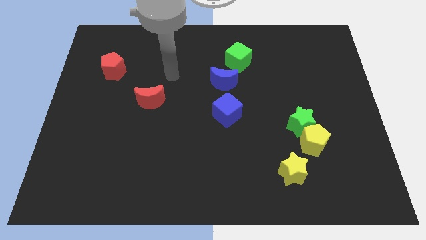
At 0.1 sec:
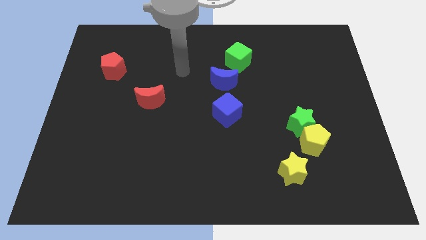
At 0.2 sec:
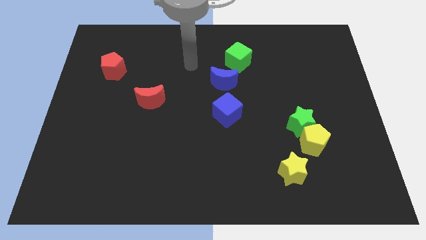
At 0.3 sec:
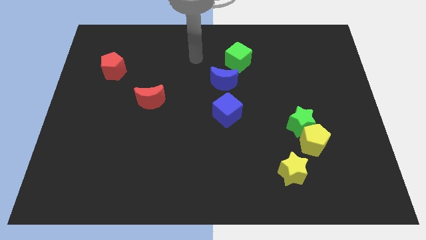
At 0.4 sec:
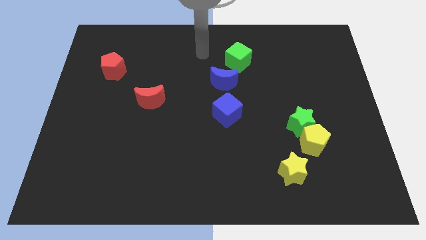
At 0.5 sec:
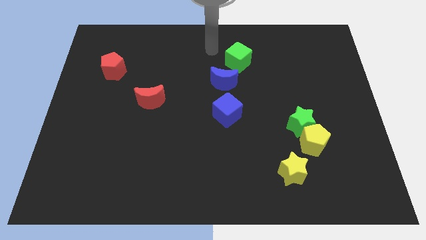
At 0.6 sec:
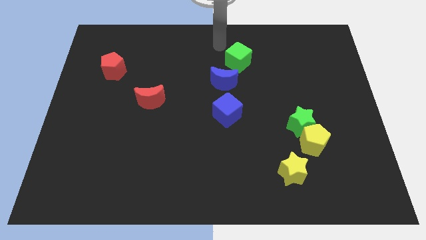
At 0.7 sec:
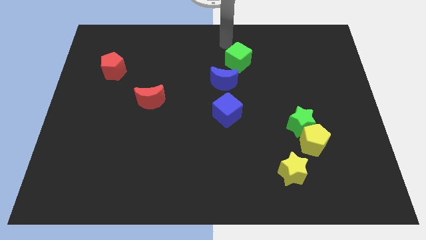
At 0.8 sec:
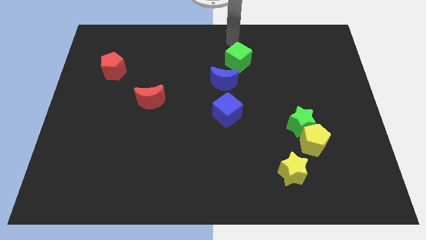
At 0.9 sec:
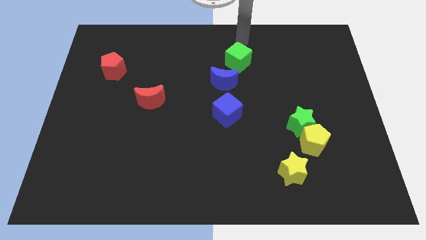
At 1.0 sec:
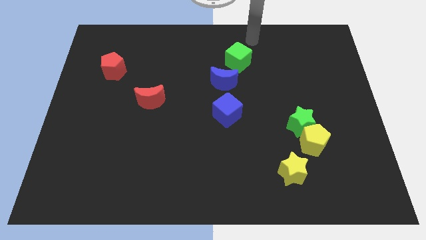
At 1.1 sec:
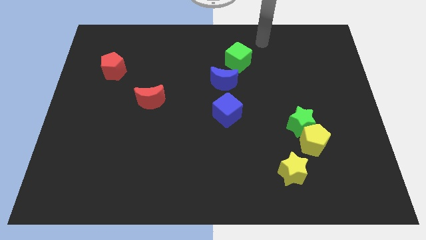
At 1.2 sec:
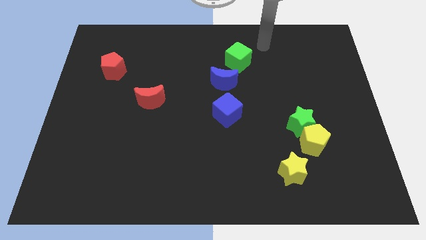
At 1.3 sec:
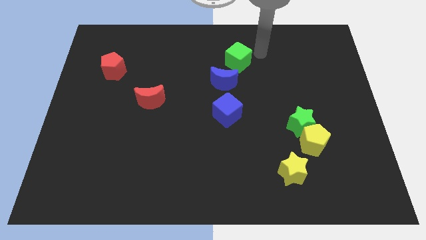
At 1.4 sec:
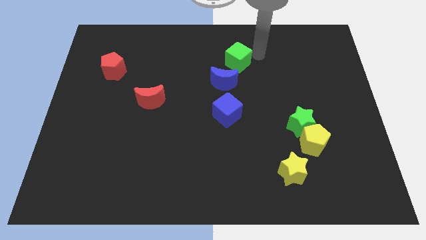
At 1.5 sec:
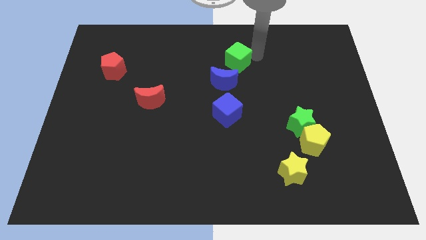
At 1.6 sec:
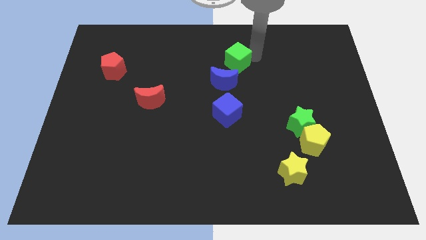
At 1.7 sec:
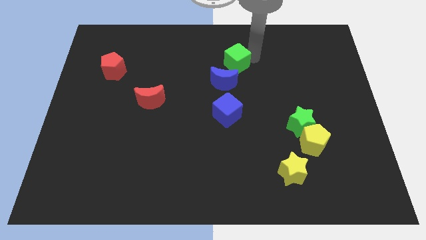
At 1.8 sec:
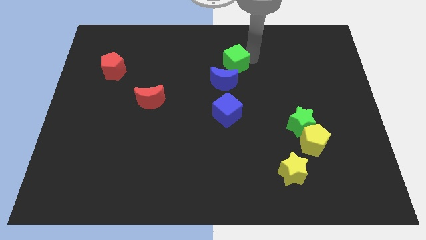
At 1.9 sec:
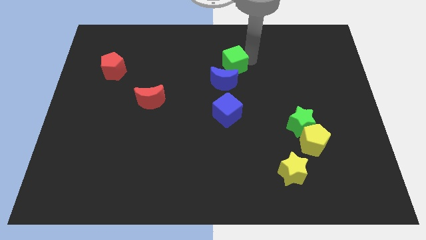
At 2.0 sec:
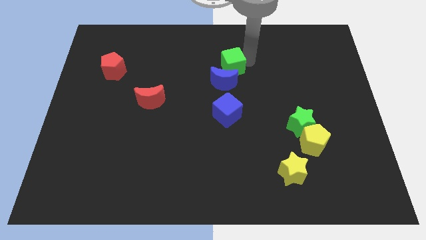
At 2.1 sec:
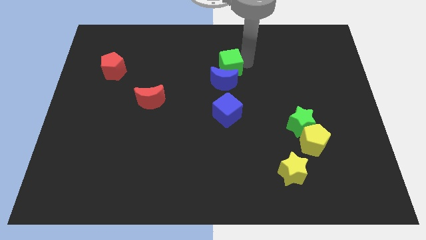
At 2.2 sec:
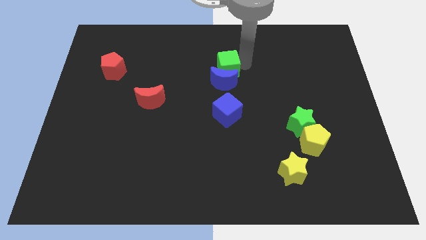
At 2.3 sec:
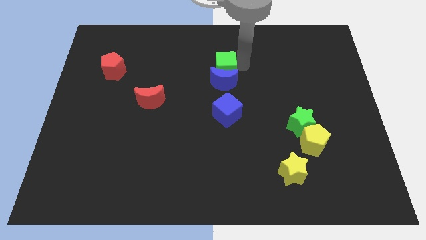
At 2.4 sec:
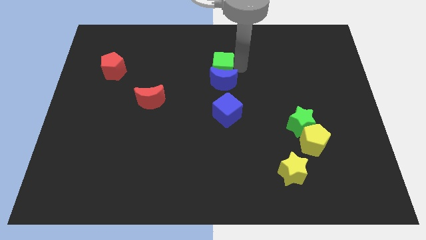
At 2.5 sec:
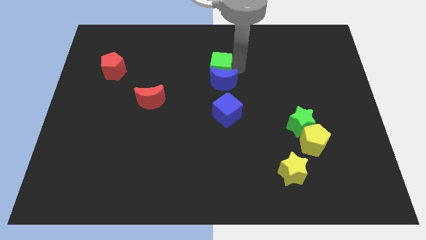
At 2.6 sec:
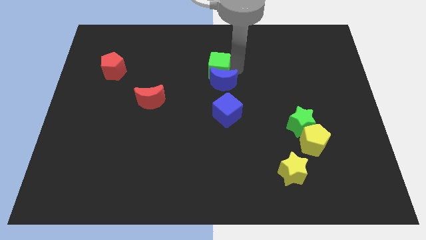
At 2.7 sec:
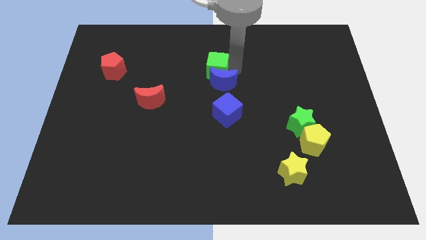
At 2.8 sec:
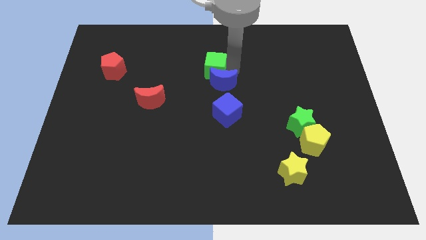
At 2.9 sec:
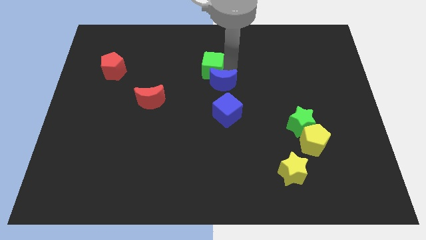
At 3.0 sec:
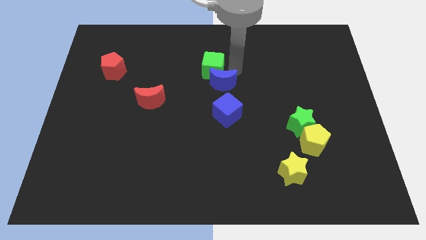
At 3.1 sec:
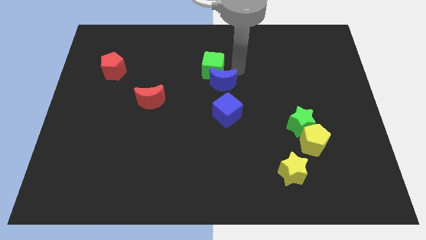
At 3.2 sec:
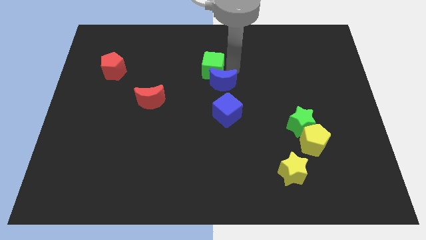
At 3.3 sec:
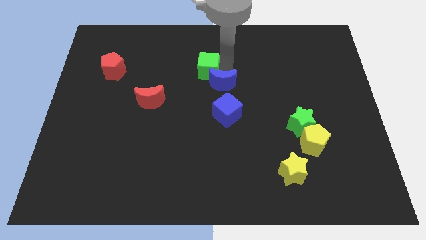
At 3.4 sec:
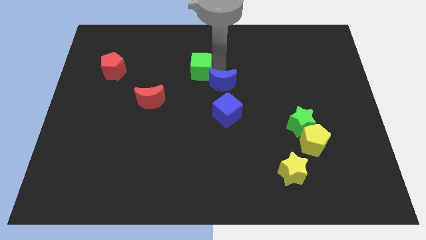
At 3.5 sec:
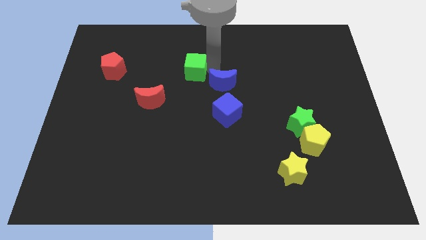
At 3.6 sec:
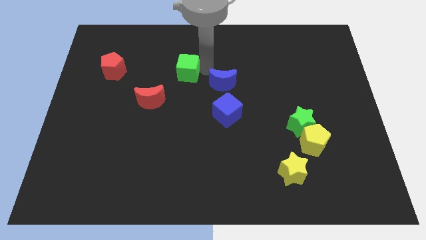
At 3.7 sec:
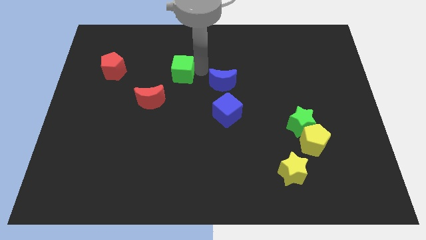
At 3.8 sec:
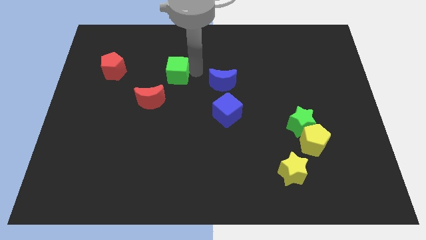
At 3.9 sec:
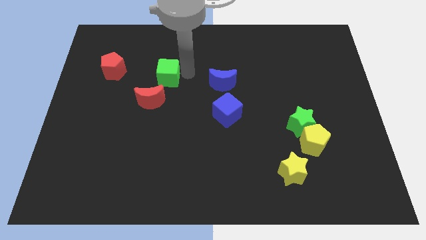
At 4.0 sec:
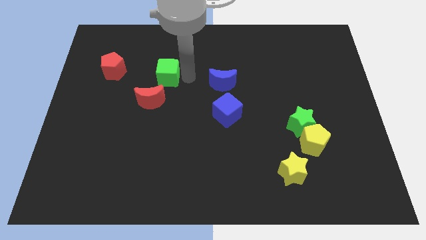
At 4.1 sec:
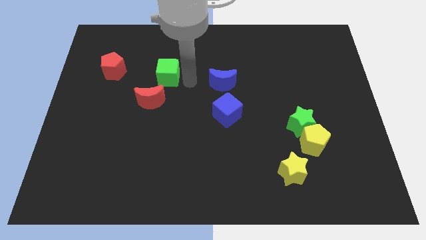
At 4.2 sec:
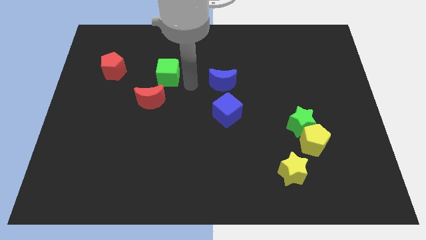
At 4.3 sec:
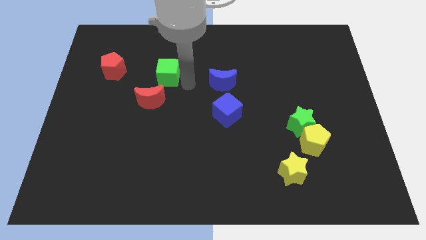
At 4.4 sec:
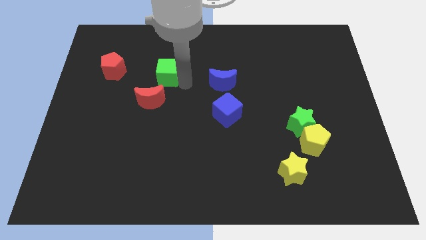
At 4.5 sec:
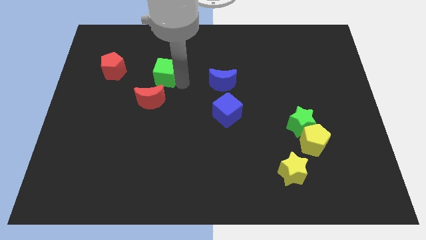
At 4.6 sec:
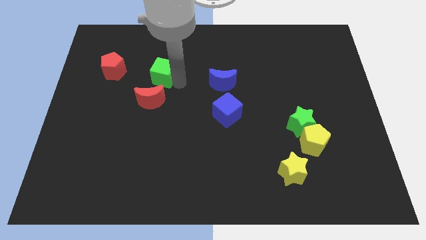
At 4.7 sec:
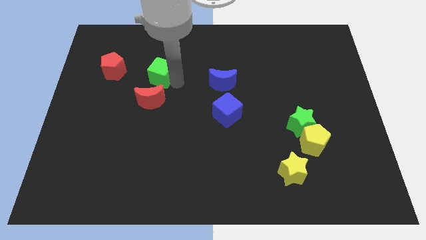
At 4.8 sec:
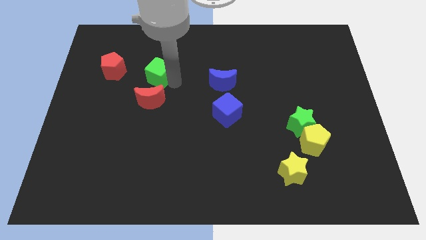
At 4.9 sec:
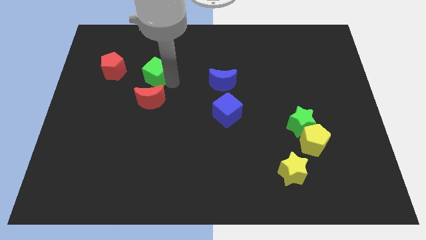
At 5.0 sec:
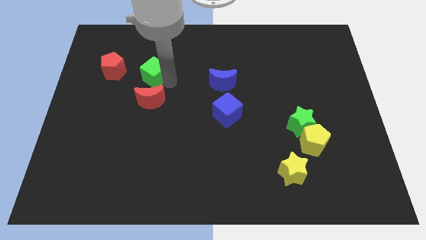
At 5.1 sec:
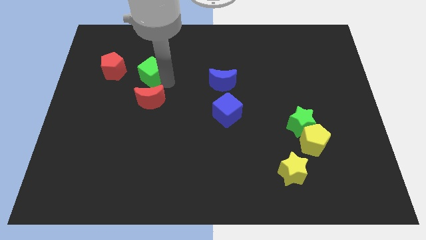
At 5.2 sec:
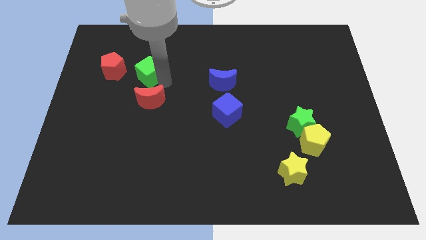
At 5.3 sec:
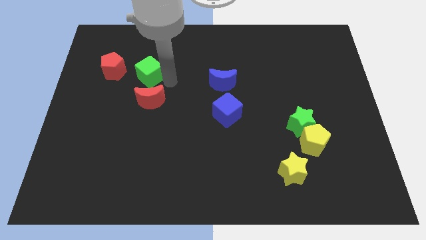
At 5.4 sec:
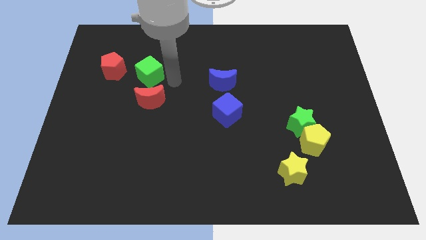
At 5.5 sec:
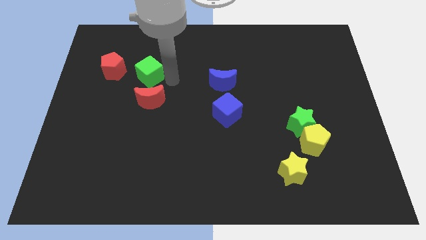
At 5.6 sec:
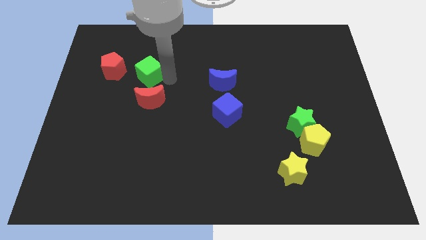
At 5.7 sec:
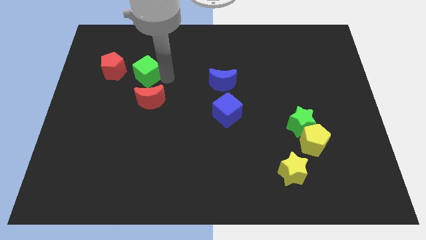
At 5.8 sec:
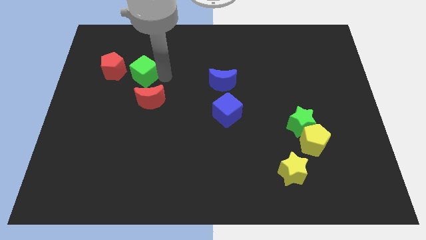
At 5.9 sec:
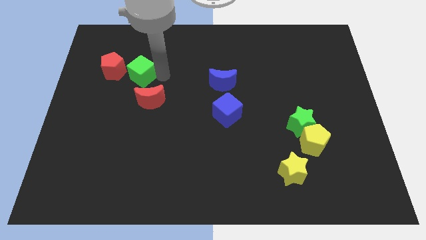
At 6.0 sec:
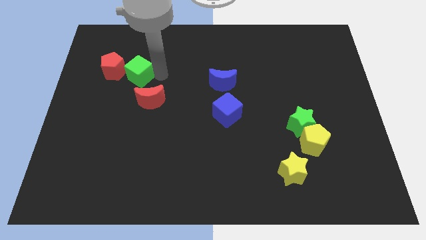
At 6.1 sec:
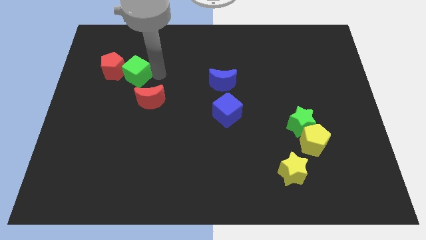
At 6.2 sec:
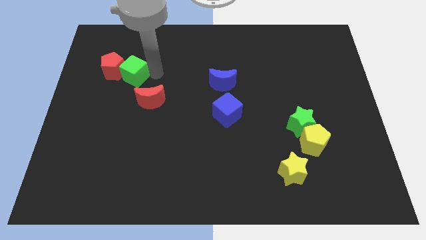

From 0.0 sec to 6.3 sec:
push the green cube to the red pentagon
